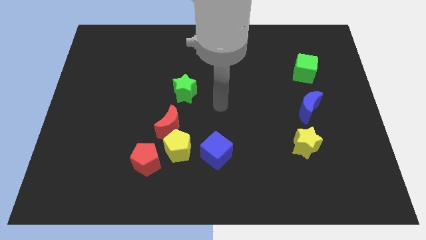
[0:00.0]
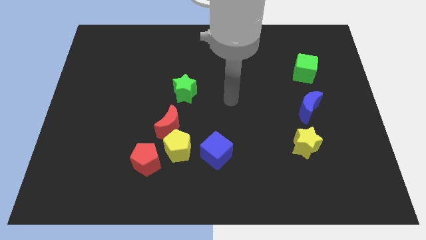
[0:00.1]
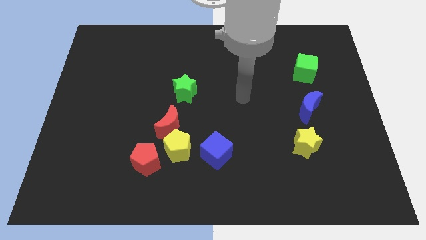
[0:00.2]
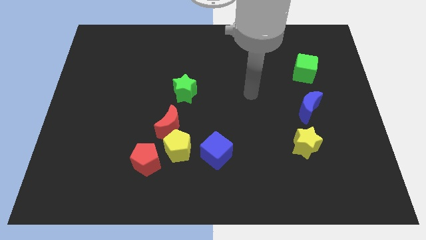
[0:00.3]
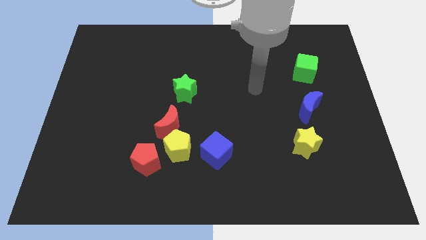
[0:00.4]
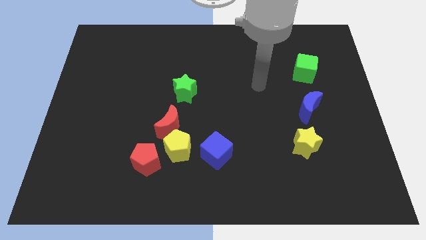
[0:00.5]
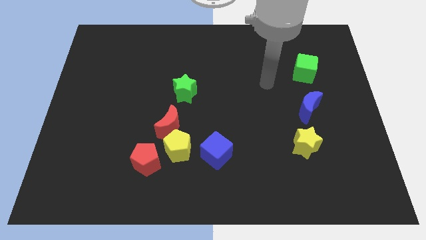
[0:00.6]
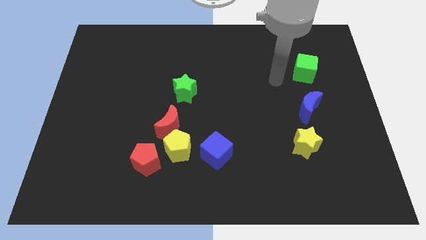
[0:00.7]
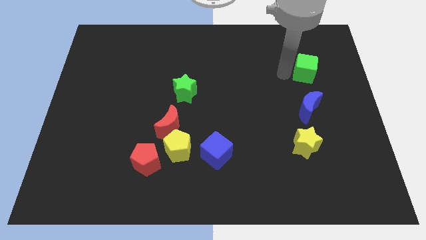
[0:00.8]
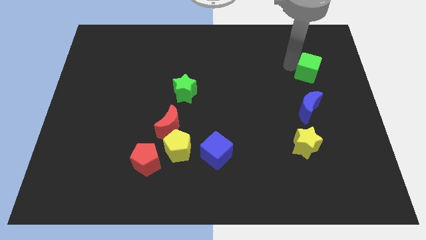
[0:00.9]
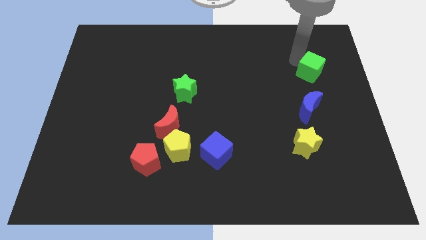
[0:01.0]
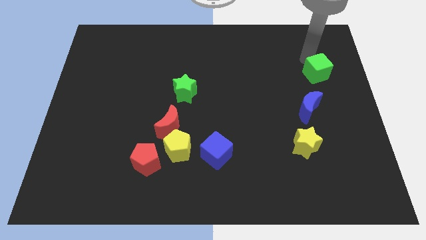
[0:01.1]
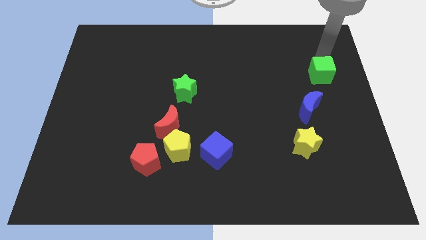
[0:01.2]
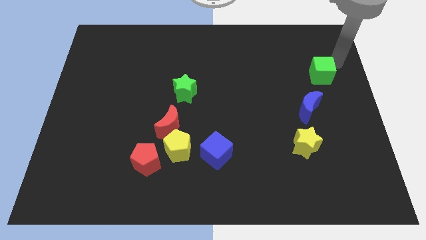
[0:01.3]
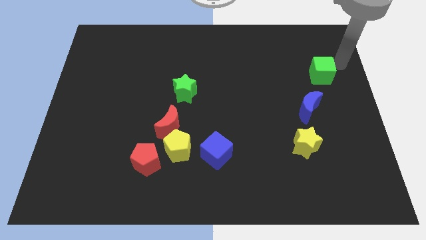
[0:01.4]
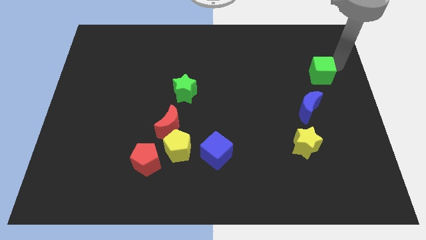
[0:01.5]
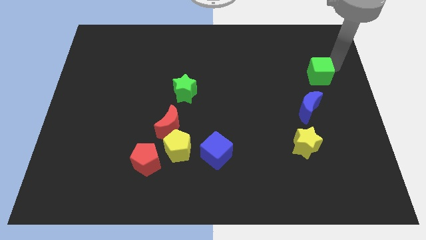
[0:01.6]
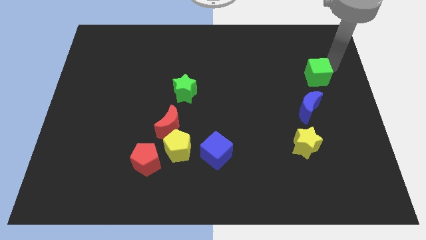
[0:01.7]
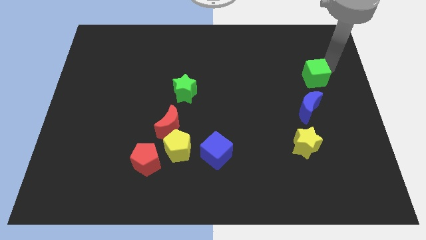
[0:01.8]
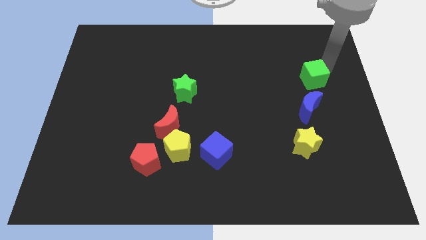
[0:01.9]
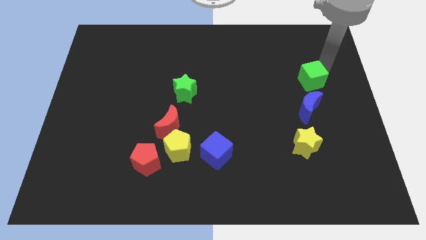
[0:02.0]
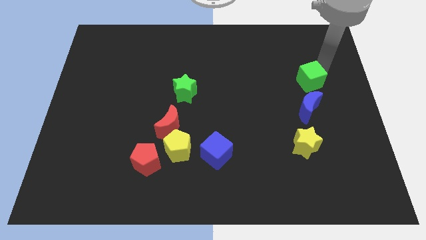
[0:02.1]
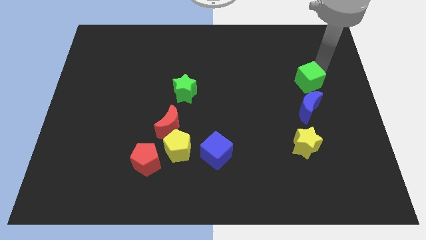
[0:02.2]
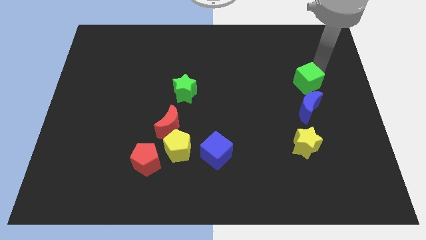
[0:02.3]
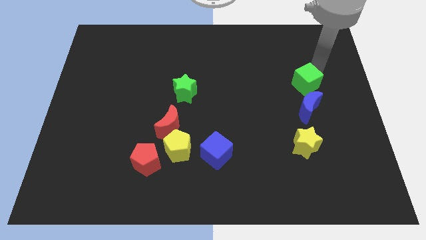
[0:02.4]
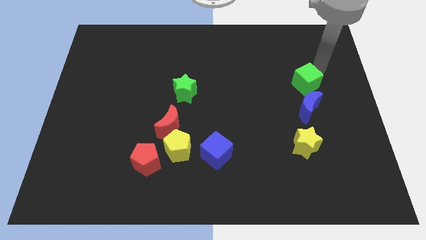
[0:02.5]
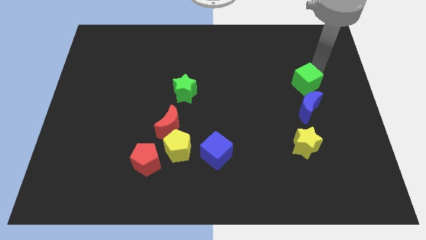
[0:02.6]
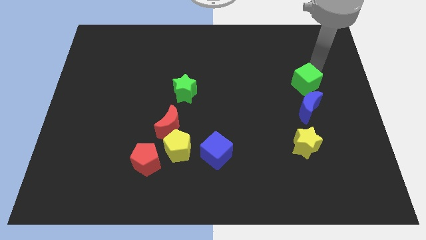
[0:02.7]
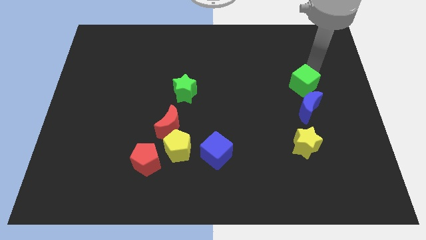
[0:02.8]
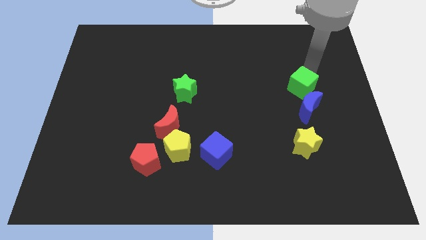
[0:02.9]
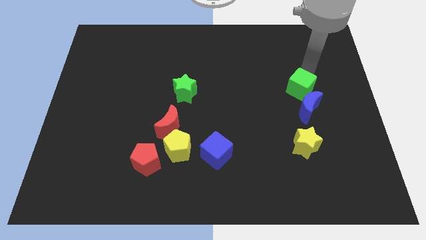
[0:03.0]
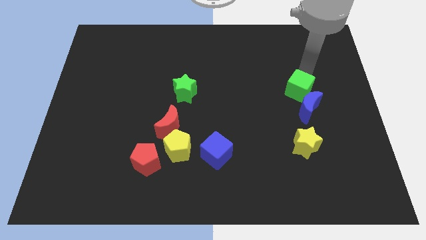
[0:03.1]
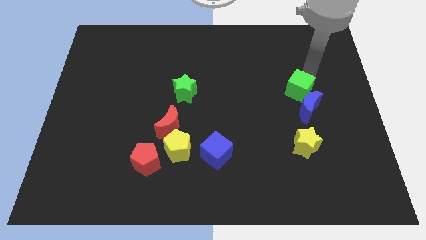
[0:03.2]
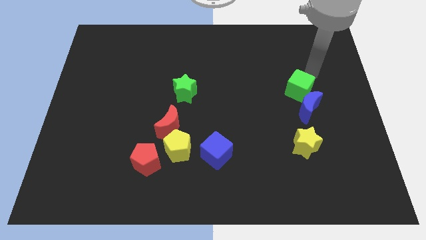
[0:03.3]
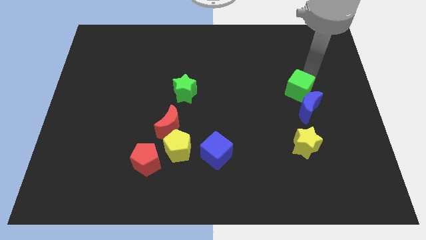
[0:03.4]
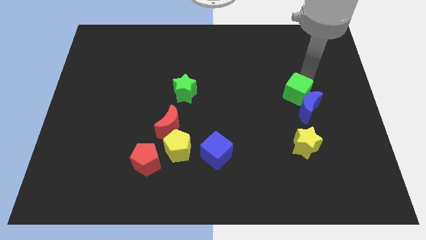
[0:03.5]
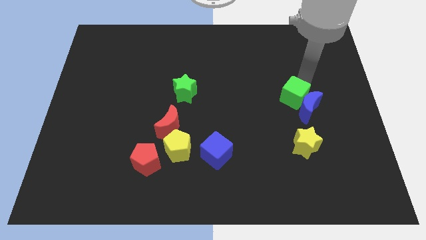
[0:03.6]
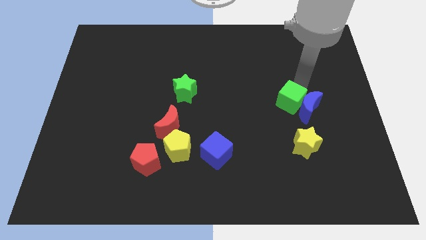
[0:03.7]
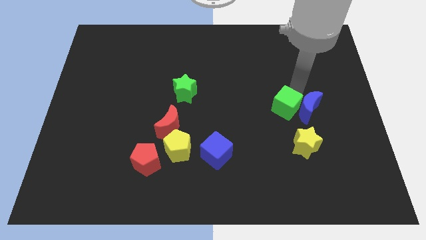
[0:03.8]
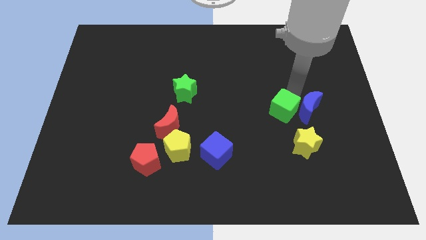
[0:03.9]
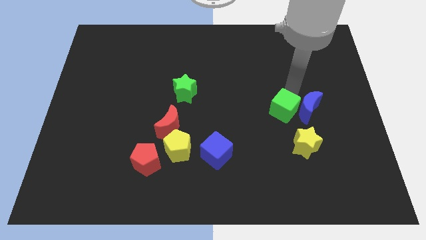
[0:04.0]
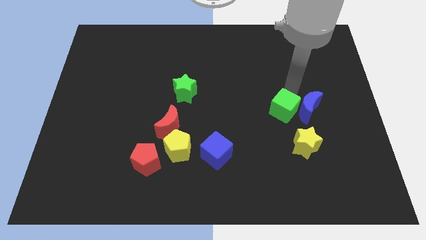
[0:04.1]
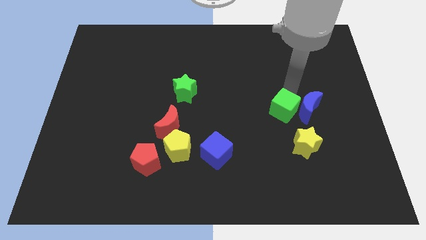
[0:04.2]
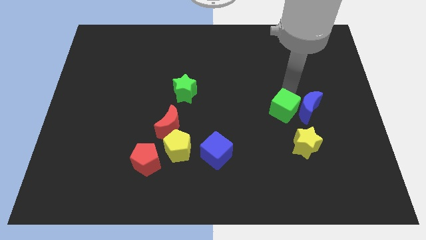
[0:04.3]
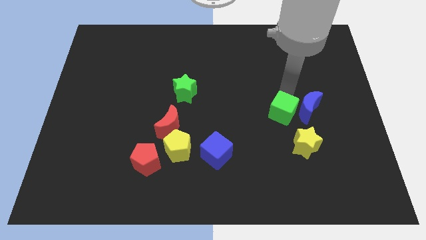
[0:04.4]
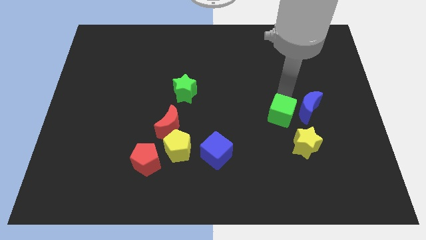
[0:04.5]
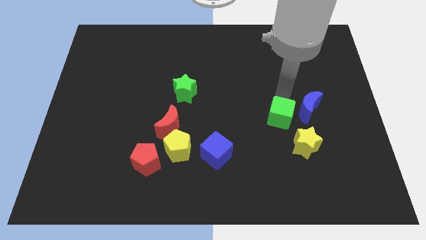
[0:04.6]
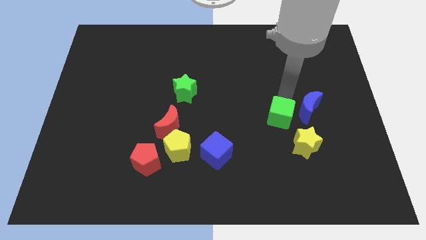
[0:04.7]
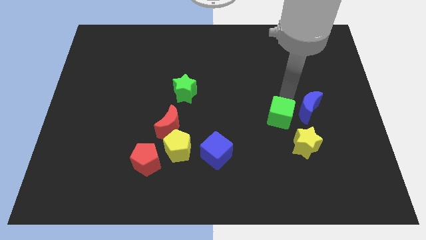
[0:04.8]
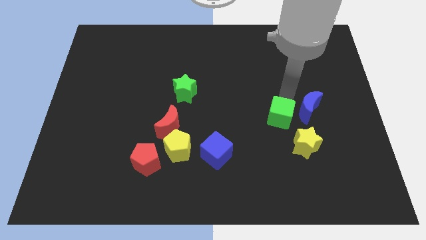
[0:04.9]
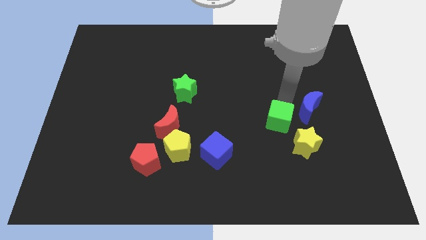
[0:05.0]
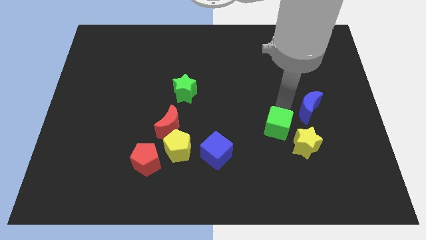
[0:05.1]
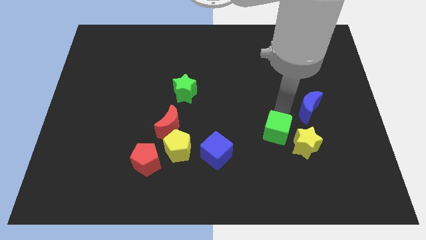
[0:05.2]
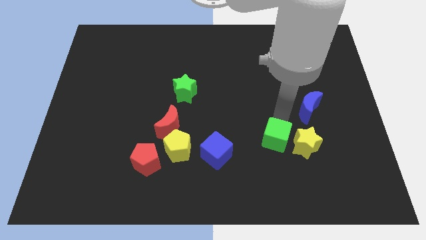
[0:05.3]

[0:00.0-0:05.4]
put the green cube right of the blue cube

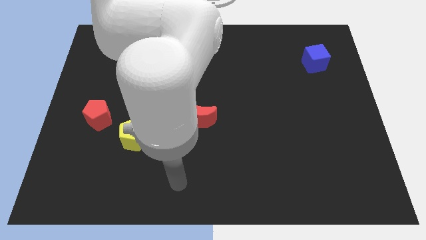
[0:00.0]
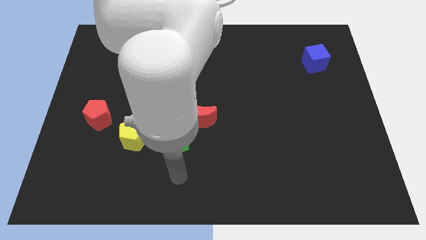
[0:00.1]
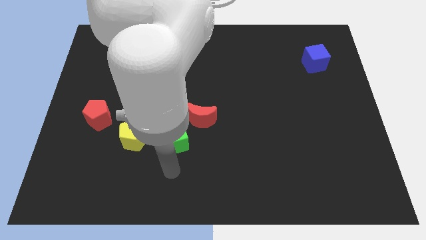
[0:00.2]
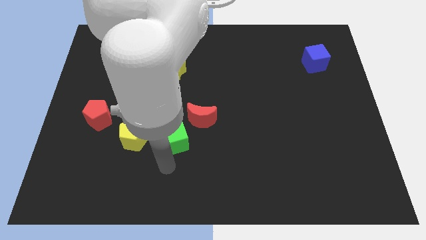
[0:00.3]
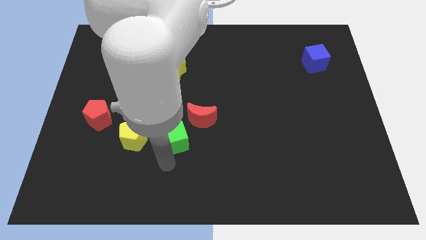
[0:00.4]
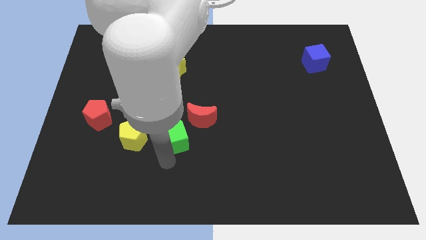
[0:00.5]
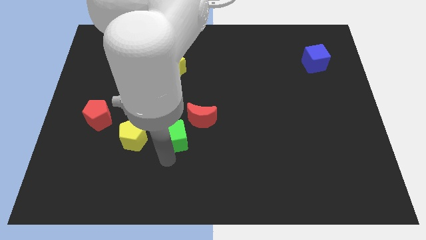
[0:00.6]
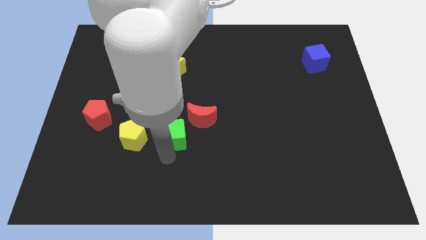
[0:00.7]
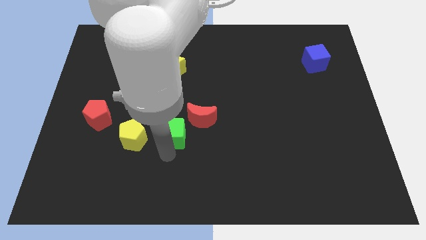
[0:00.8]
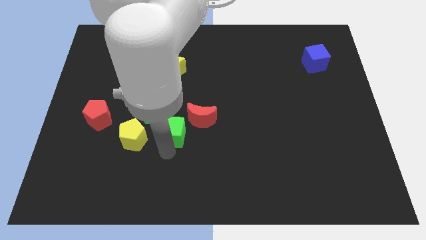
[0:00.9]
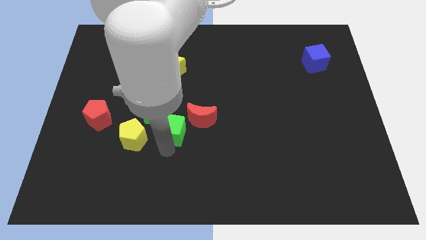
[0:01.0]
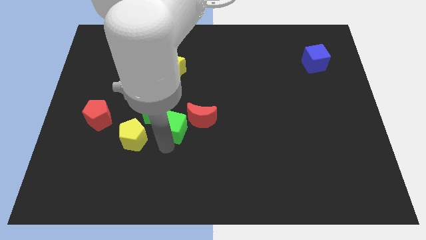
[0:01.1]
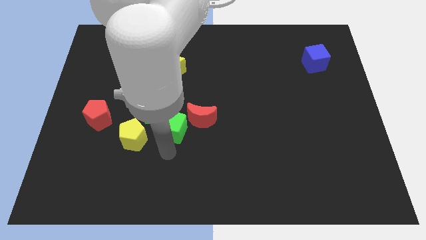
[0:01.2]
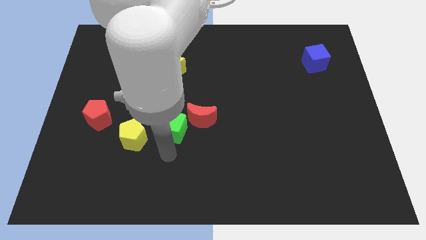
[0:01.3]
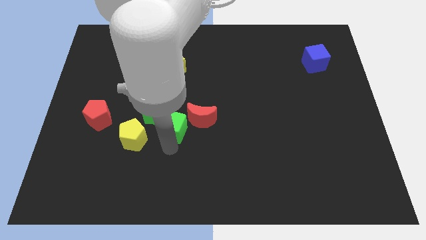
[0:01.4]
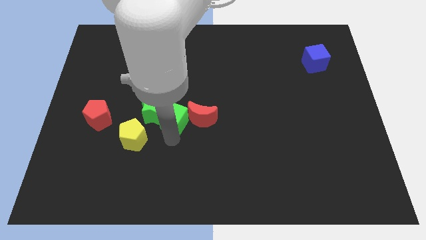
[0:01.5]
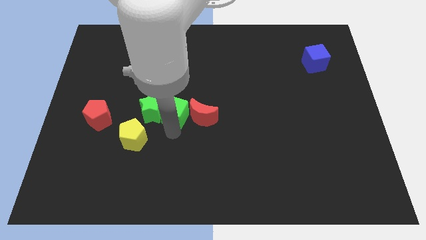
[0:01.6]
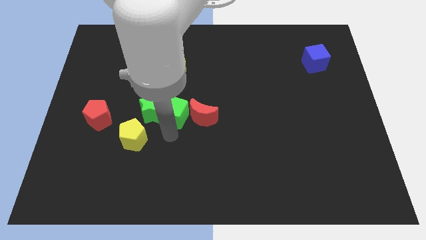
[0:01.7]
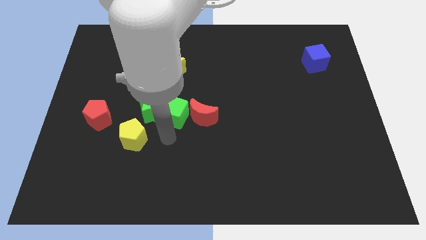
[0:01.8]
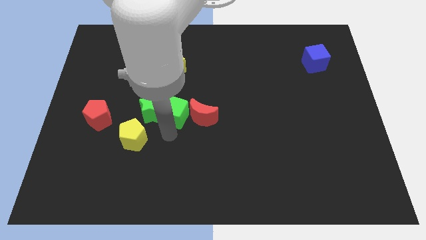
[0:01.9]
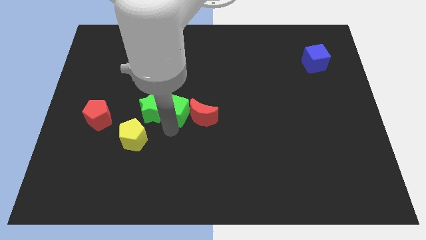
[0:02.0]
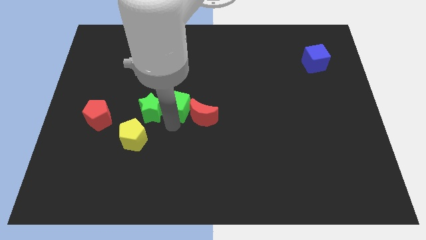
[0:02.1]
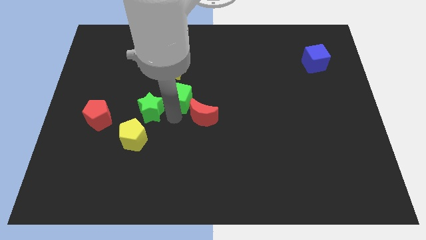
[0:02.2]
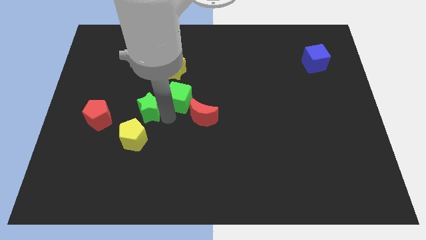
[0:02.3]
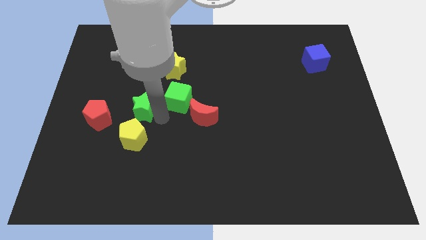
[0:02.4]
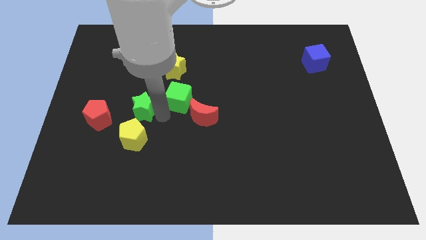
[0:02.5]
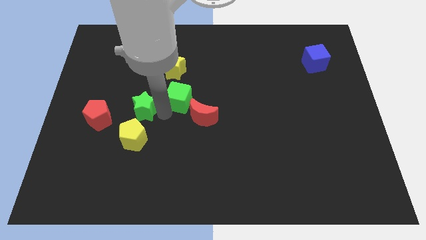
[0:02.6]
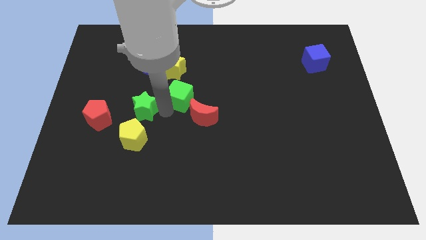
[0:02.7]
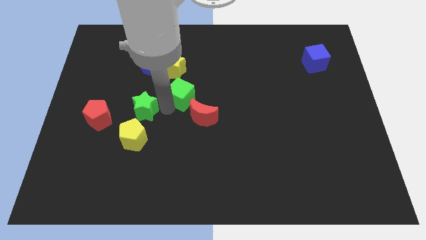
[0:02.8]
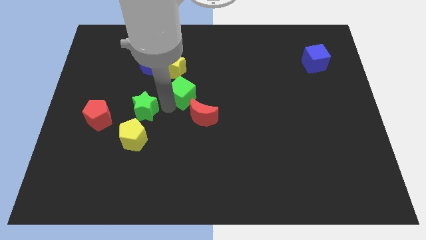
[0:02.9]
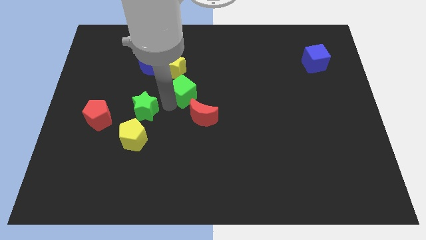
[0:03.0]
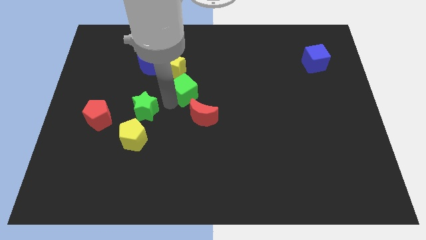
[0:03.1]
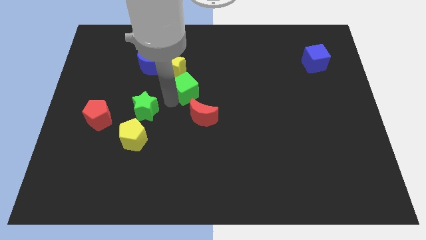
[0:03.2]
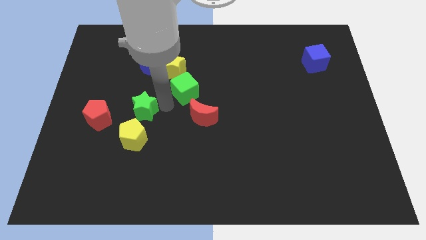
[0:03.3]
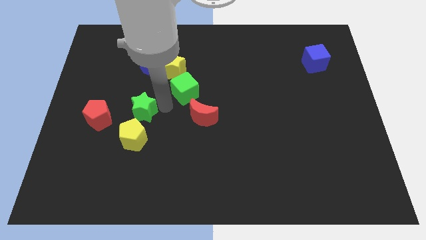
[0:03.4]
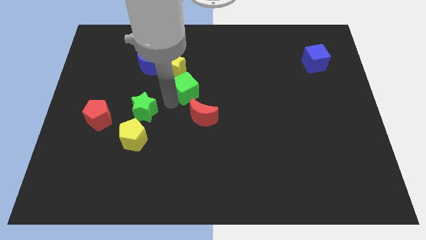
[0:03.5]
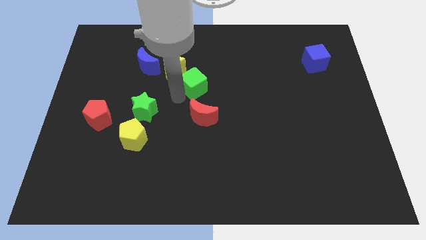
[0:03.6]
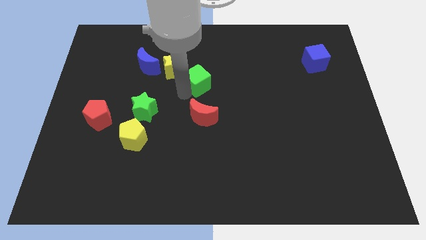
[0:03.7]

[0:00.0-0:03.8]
slide the green cube right of the yellow star
